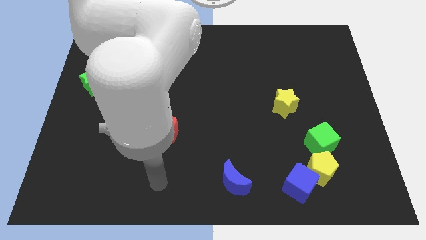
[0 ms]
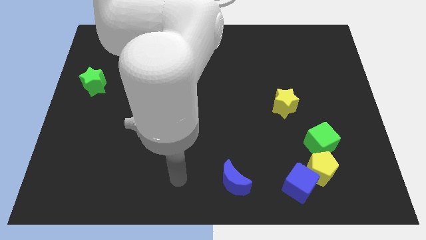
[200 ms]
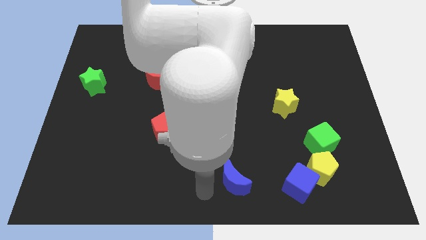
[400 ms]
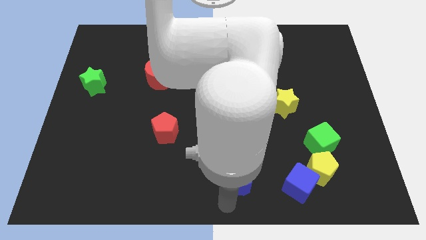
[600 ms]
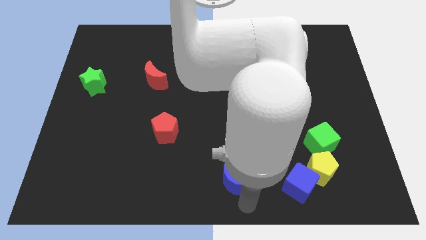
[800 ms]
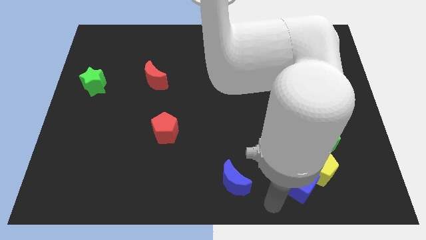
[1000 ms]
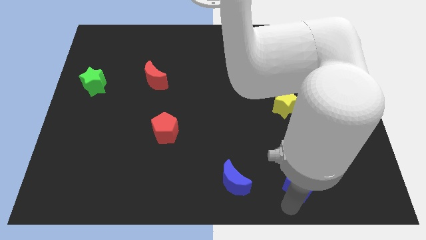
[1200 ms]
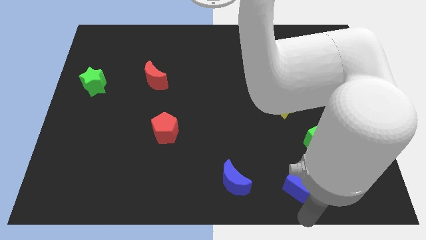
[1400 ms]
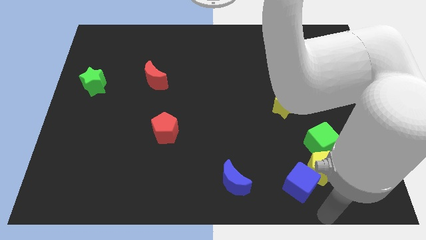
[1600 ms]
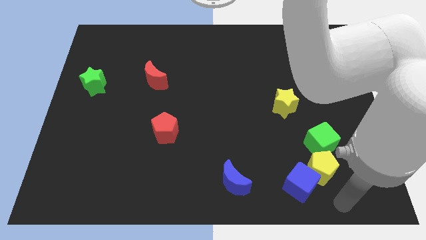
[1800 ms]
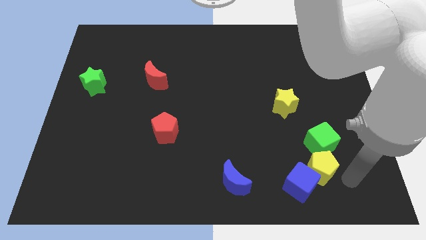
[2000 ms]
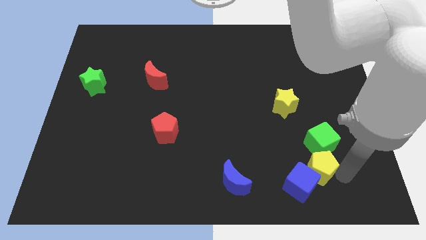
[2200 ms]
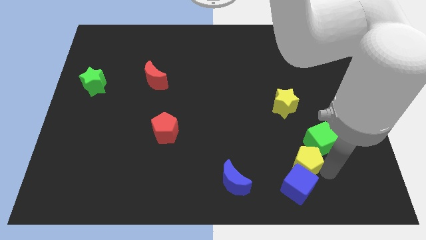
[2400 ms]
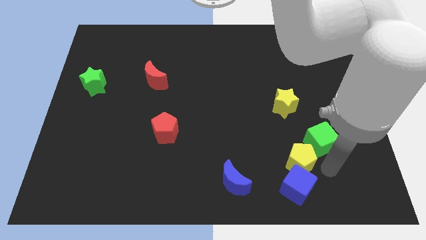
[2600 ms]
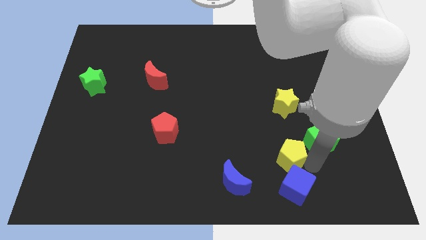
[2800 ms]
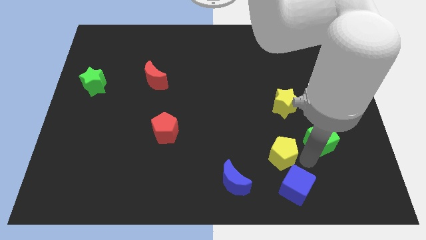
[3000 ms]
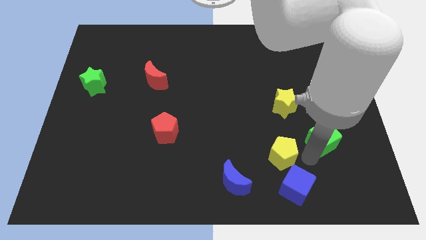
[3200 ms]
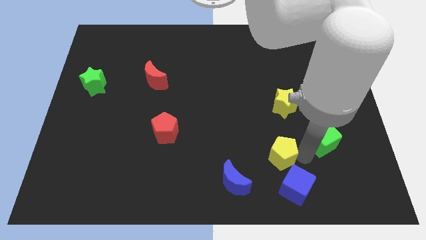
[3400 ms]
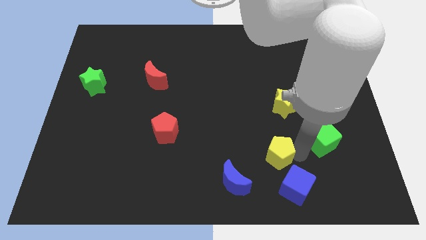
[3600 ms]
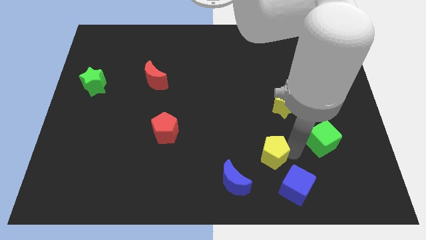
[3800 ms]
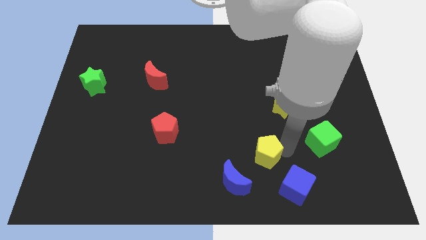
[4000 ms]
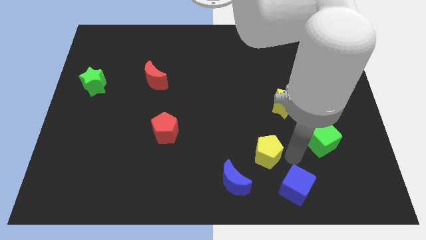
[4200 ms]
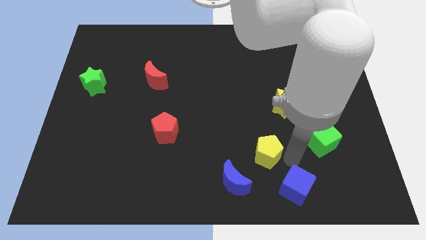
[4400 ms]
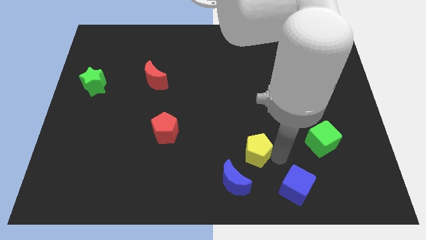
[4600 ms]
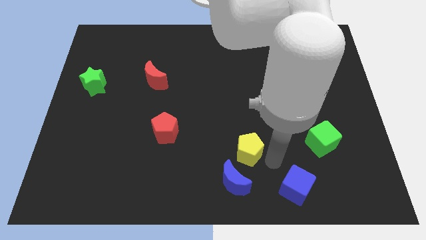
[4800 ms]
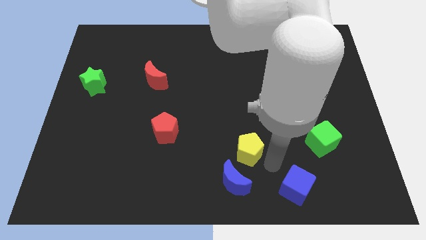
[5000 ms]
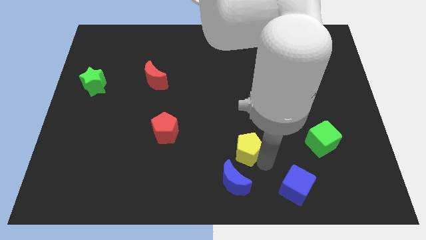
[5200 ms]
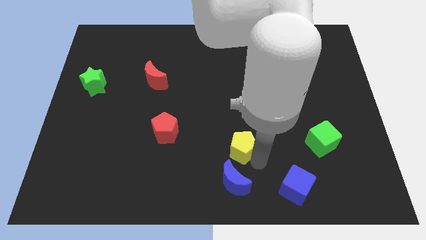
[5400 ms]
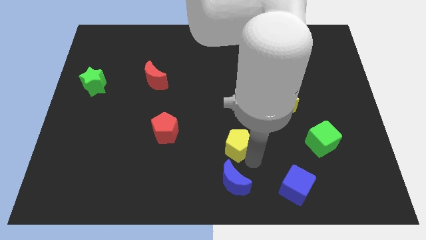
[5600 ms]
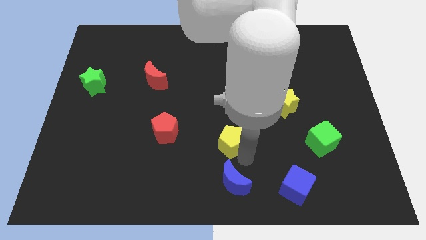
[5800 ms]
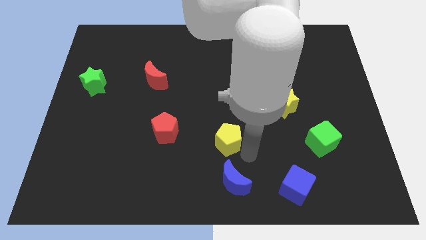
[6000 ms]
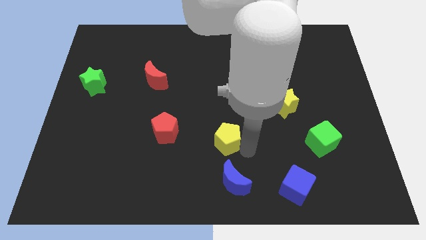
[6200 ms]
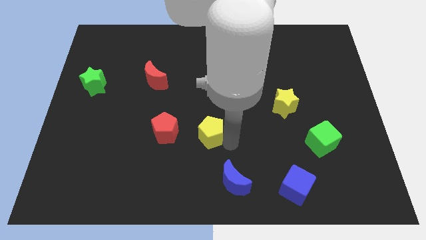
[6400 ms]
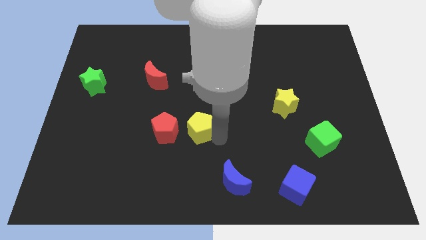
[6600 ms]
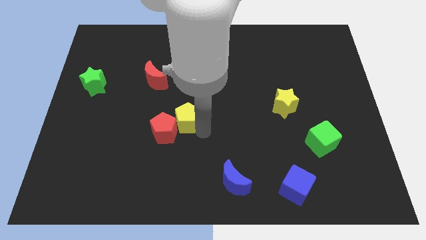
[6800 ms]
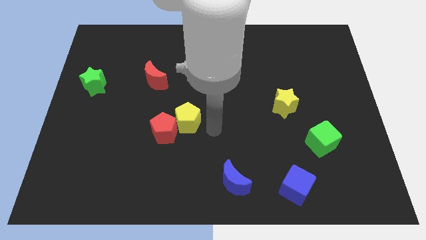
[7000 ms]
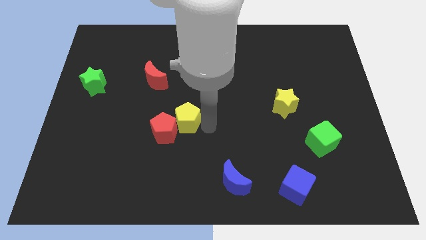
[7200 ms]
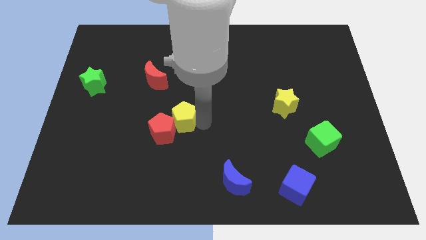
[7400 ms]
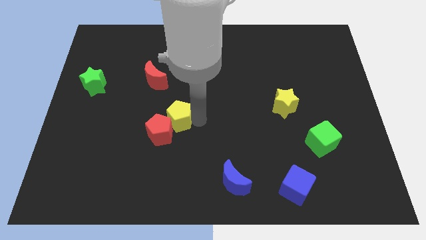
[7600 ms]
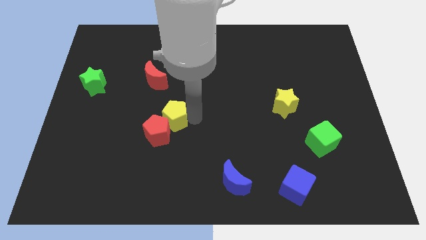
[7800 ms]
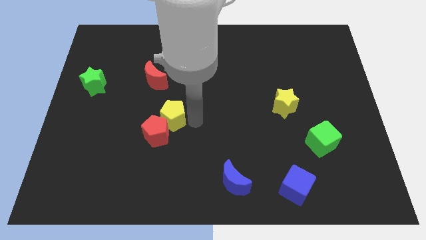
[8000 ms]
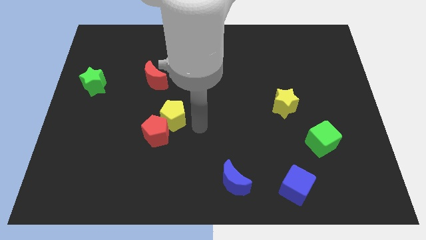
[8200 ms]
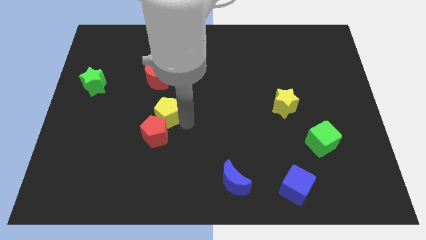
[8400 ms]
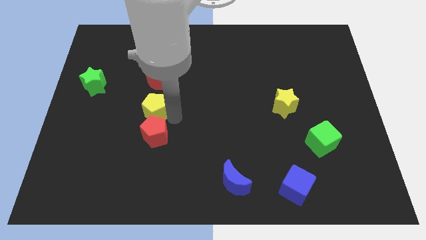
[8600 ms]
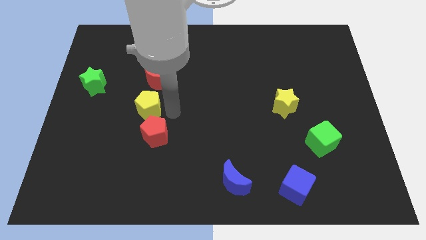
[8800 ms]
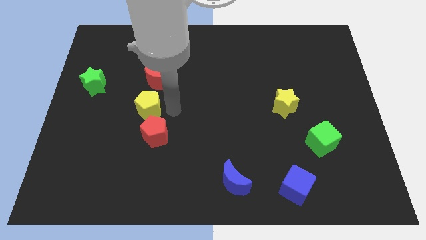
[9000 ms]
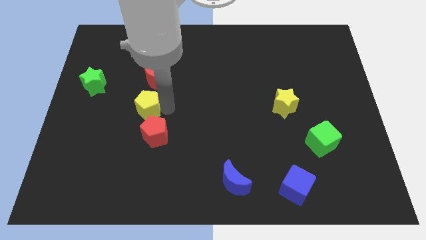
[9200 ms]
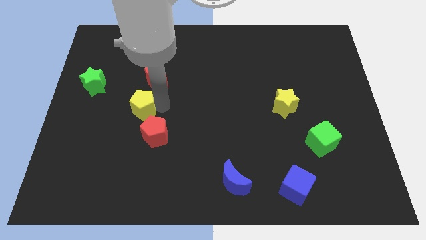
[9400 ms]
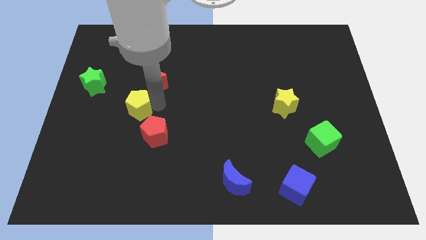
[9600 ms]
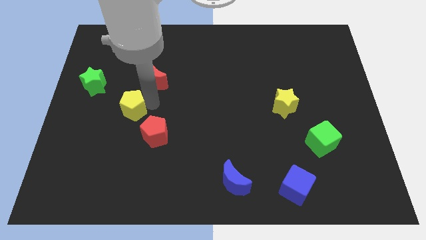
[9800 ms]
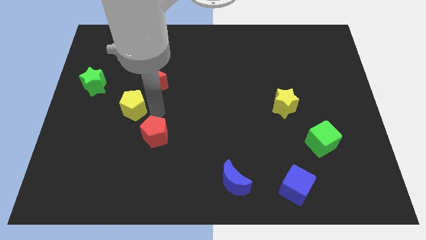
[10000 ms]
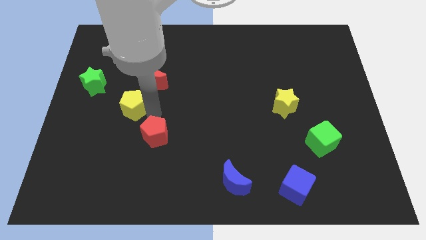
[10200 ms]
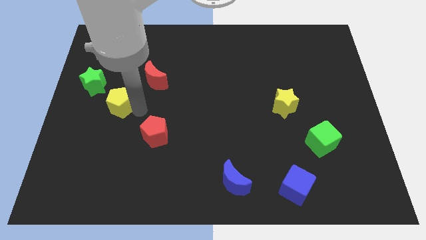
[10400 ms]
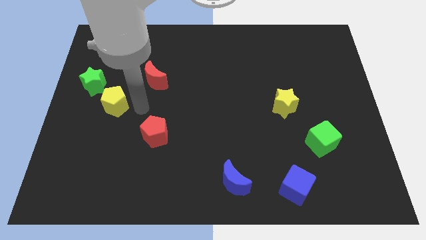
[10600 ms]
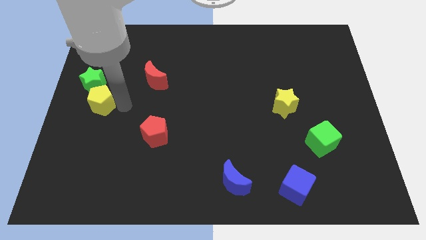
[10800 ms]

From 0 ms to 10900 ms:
move the yellow pentagon to the center left

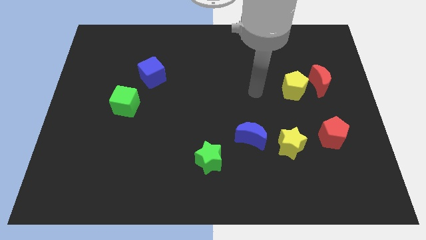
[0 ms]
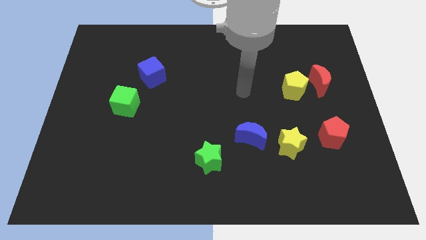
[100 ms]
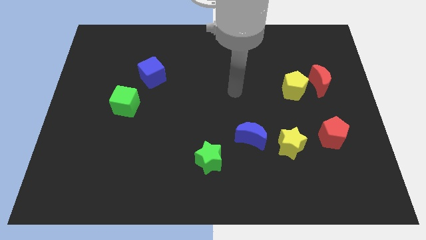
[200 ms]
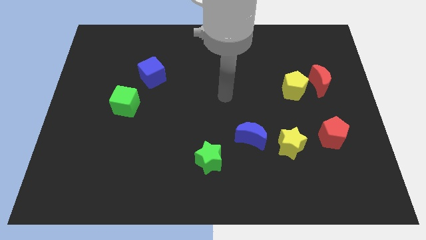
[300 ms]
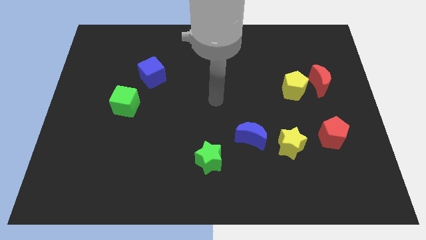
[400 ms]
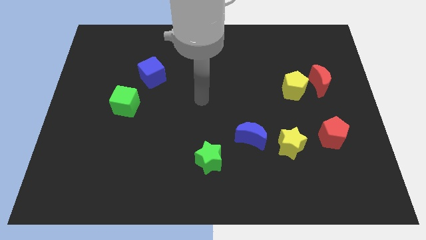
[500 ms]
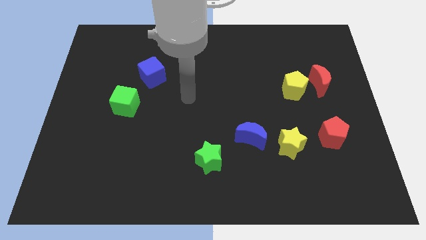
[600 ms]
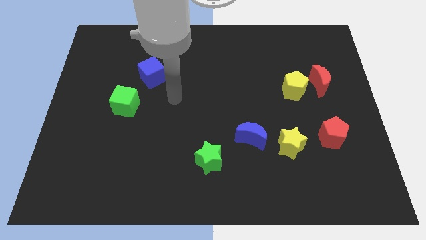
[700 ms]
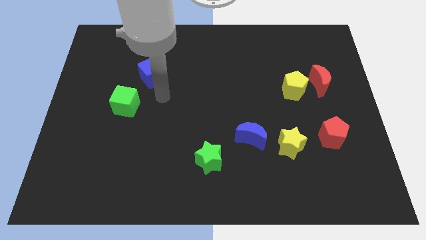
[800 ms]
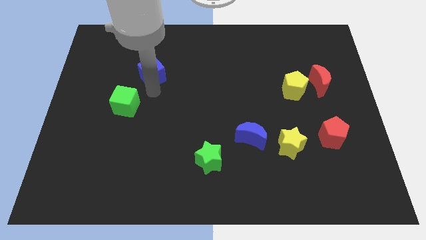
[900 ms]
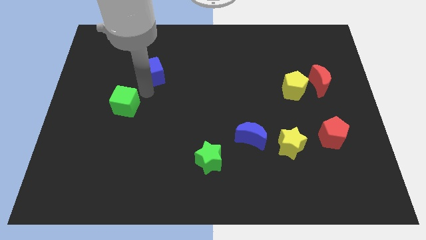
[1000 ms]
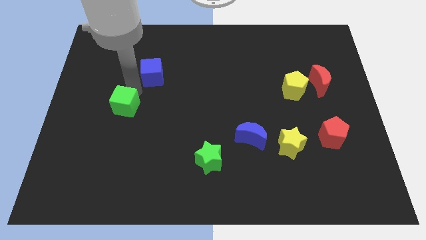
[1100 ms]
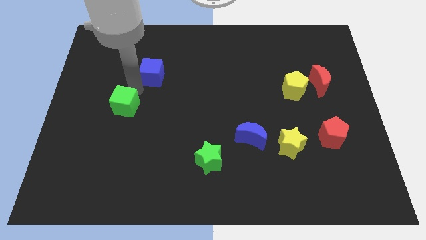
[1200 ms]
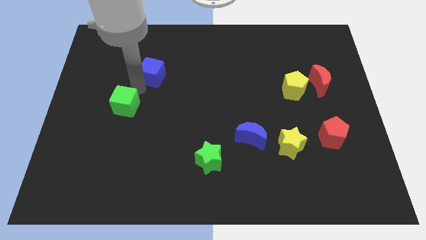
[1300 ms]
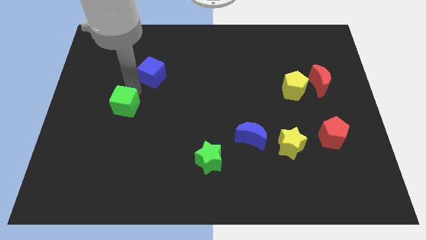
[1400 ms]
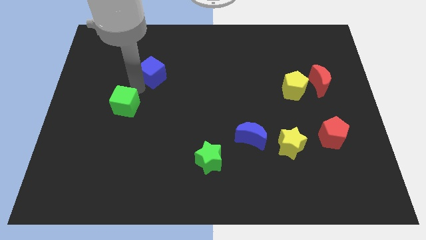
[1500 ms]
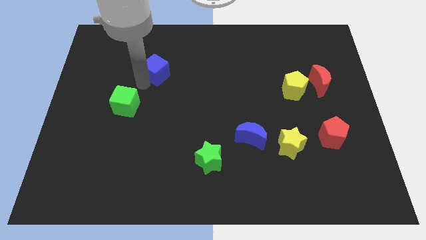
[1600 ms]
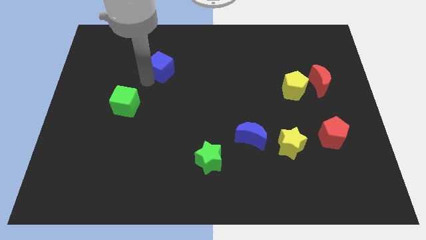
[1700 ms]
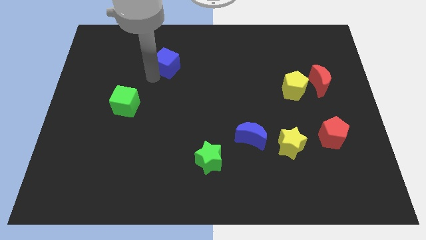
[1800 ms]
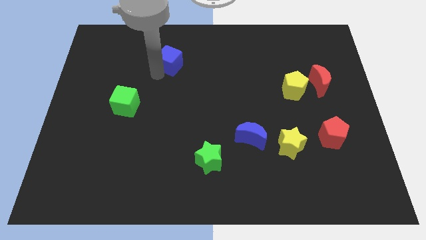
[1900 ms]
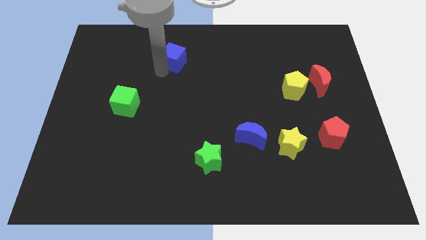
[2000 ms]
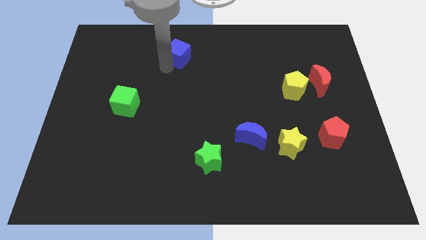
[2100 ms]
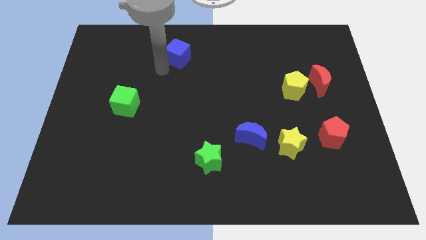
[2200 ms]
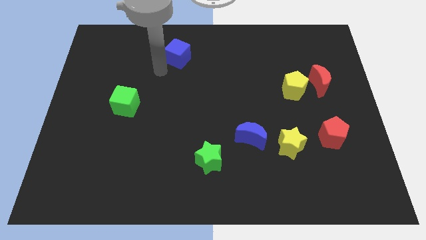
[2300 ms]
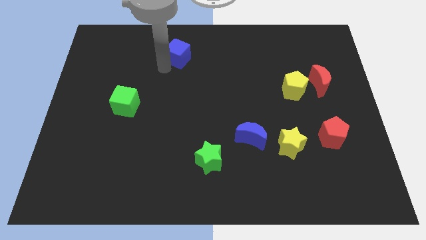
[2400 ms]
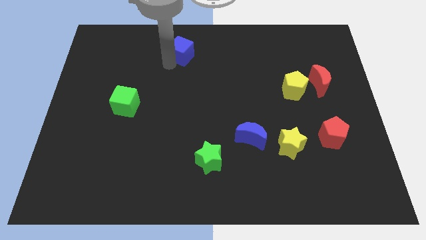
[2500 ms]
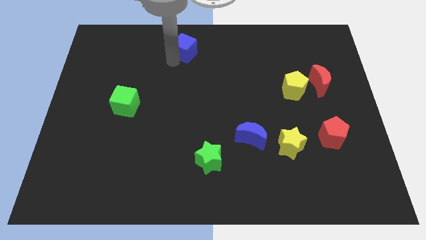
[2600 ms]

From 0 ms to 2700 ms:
move the blue cube to the top
